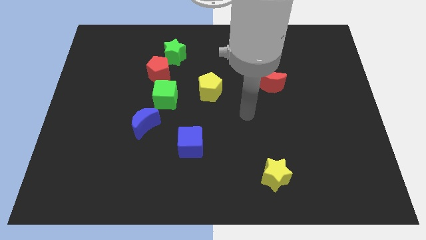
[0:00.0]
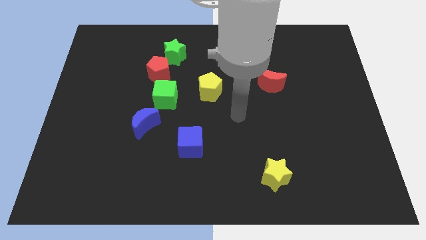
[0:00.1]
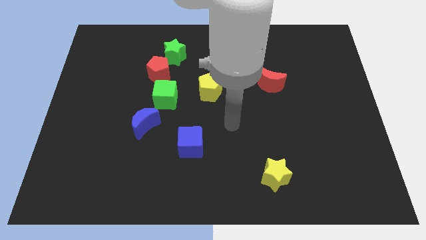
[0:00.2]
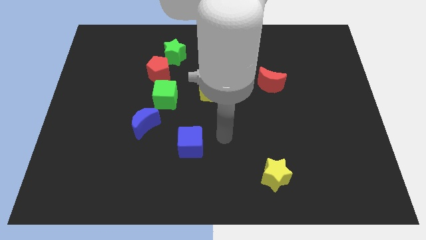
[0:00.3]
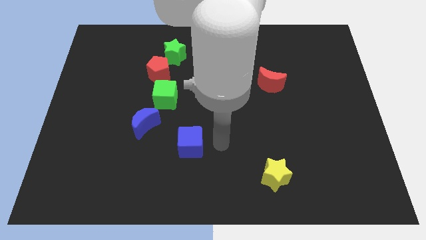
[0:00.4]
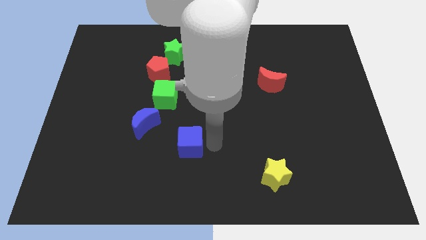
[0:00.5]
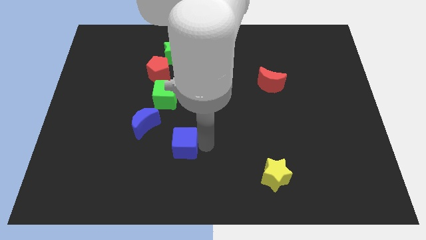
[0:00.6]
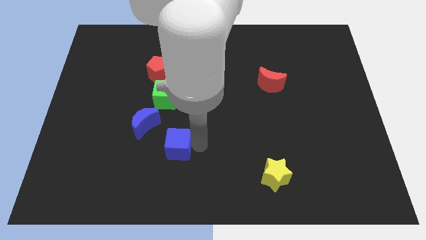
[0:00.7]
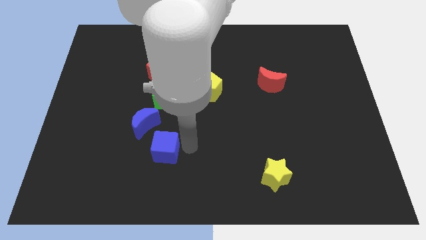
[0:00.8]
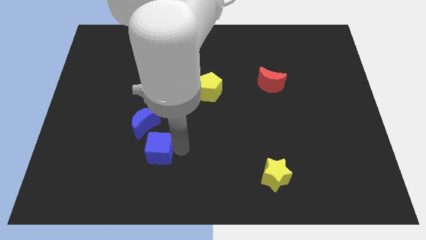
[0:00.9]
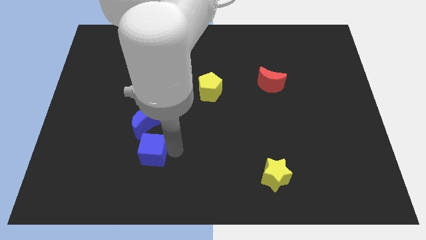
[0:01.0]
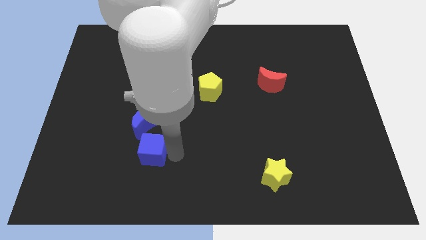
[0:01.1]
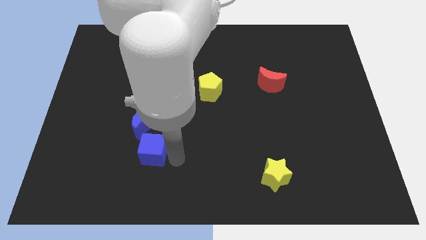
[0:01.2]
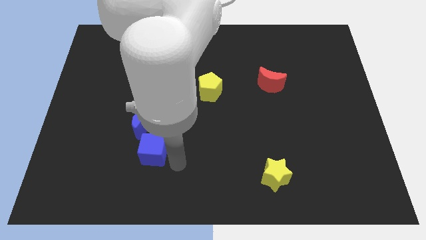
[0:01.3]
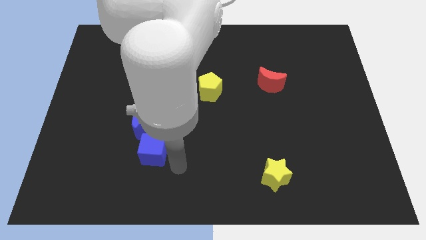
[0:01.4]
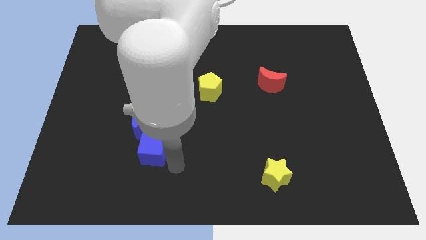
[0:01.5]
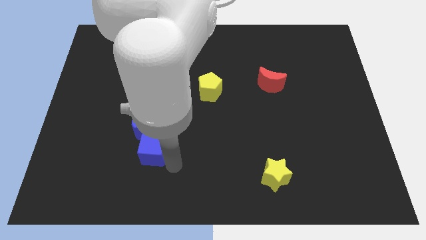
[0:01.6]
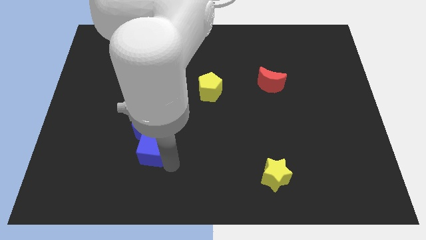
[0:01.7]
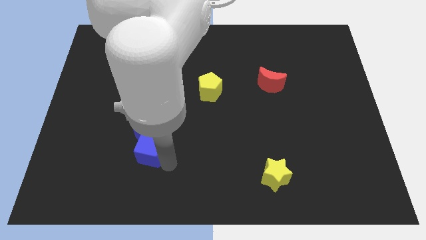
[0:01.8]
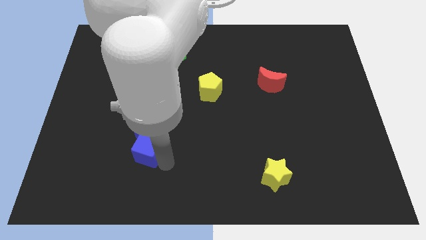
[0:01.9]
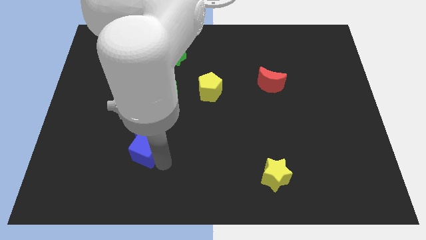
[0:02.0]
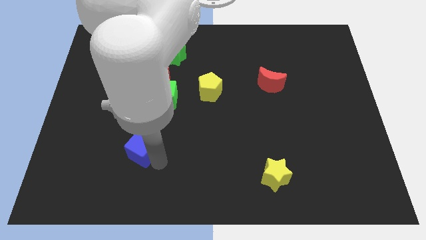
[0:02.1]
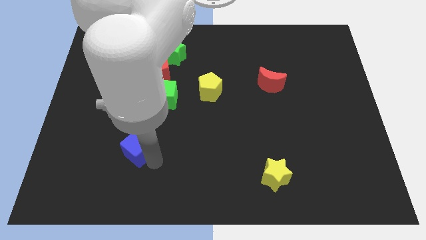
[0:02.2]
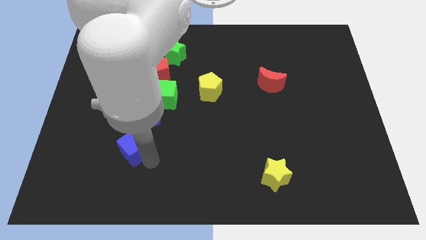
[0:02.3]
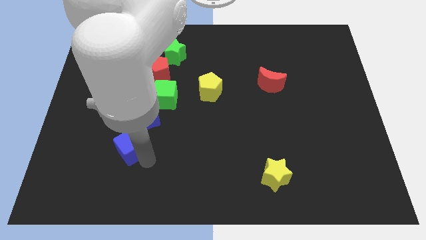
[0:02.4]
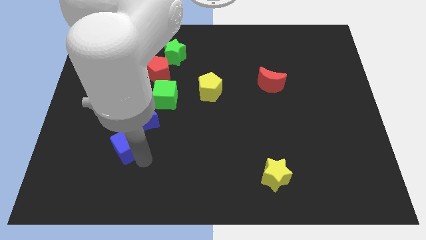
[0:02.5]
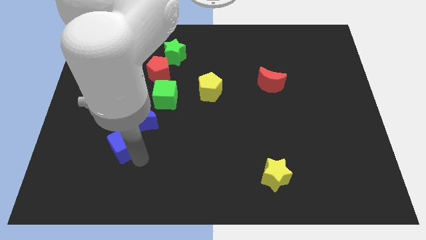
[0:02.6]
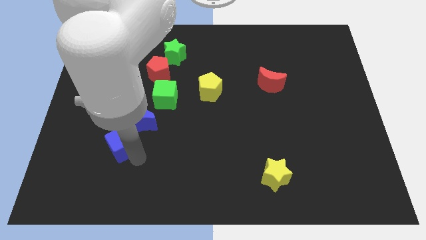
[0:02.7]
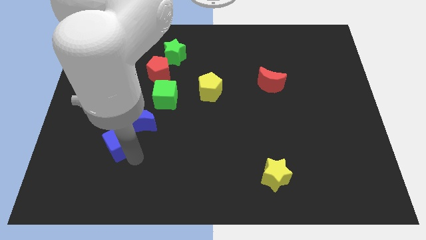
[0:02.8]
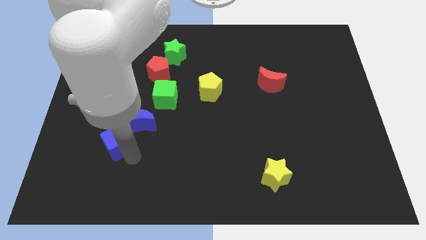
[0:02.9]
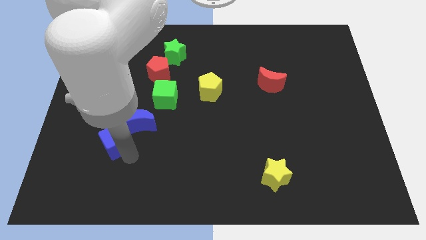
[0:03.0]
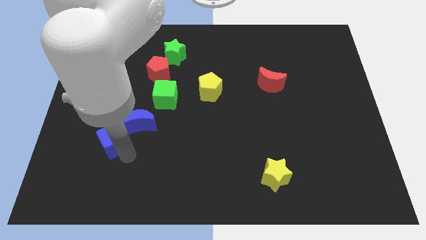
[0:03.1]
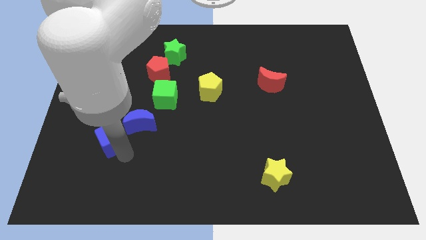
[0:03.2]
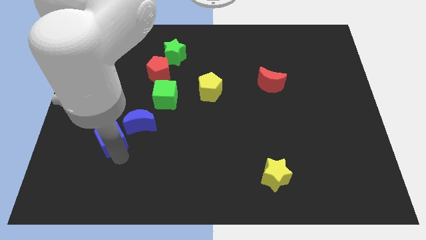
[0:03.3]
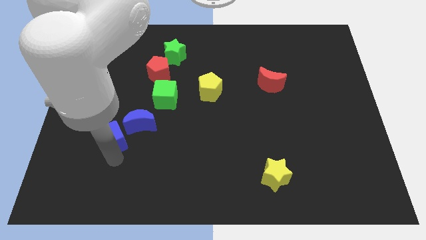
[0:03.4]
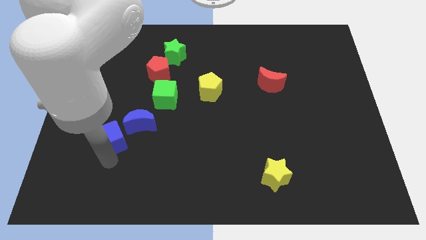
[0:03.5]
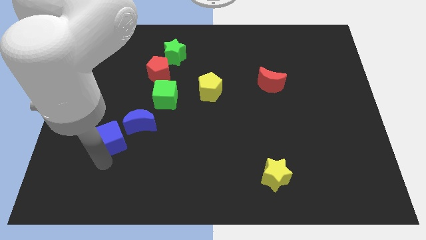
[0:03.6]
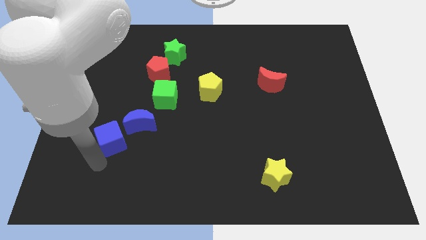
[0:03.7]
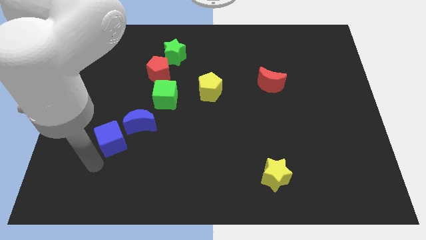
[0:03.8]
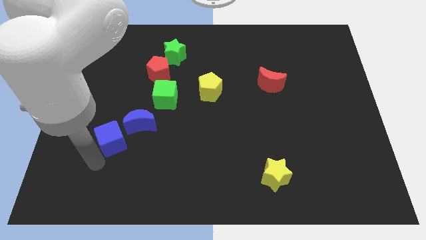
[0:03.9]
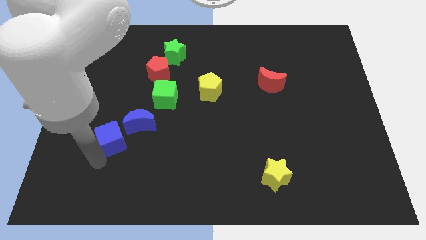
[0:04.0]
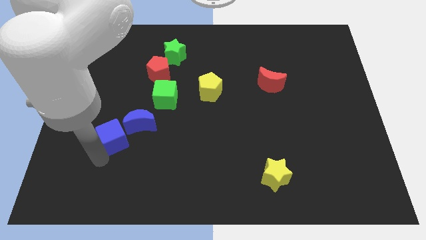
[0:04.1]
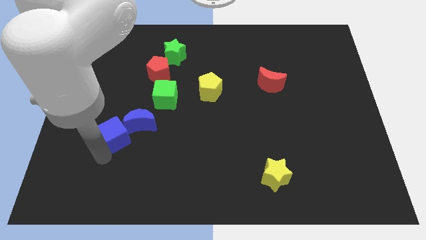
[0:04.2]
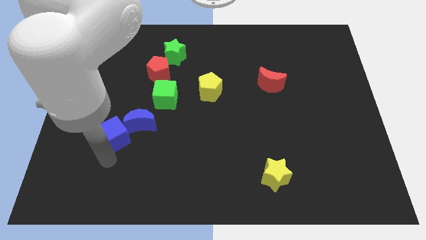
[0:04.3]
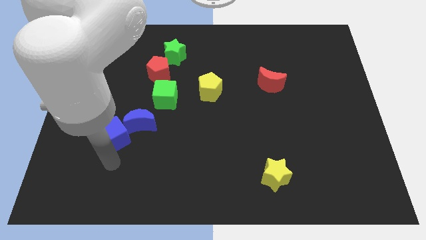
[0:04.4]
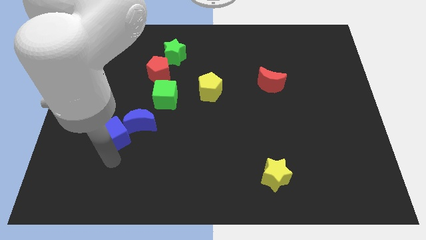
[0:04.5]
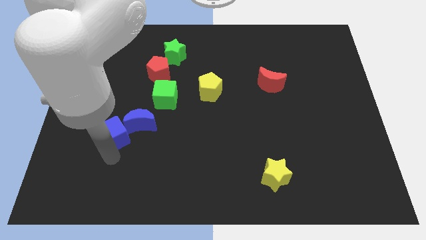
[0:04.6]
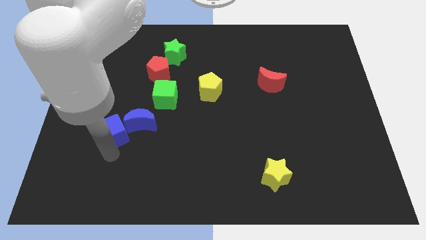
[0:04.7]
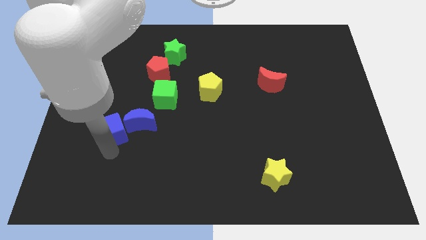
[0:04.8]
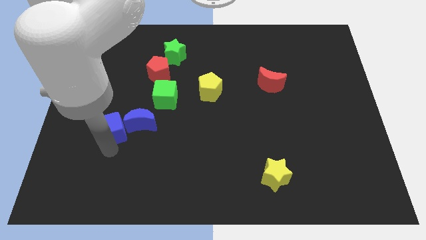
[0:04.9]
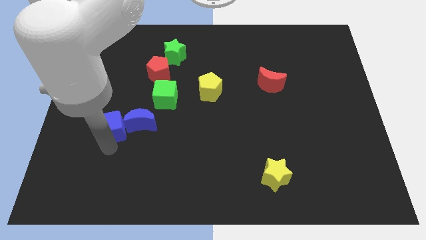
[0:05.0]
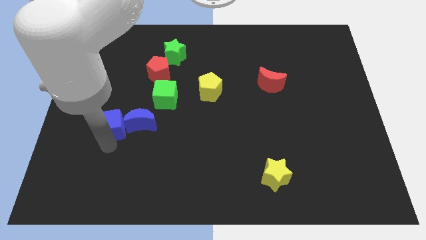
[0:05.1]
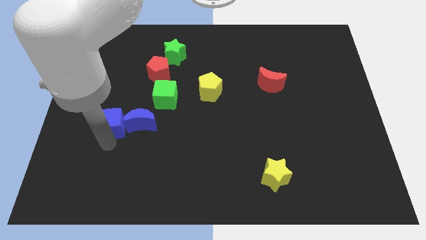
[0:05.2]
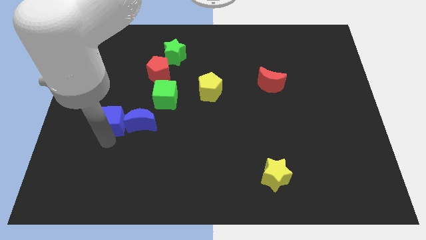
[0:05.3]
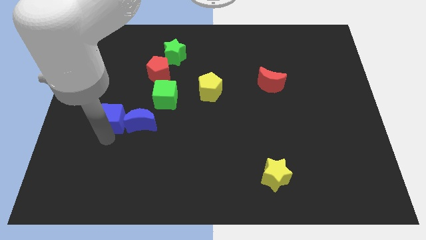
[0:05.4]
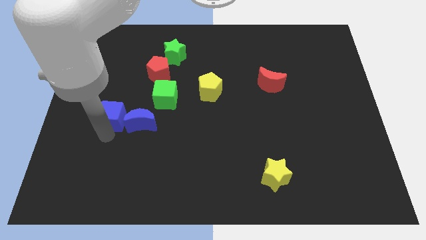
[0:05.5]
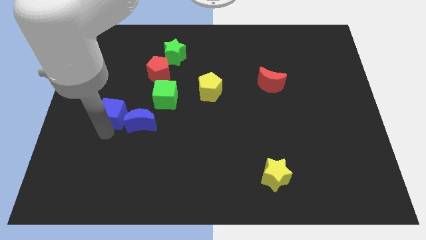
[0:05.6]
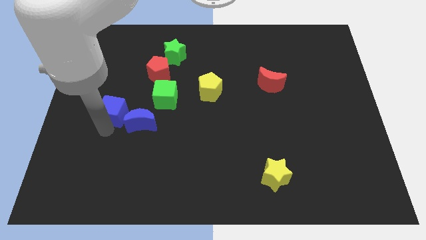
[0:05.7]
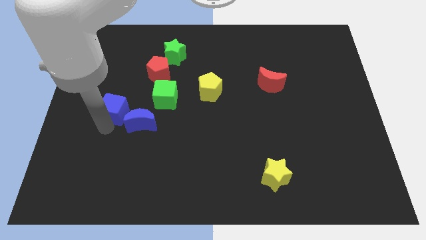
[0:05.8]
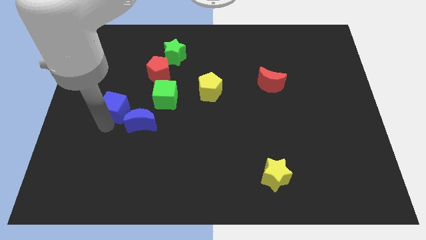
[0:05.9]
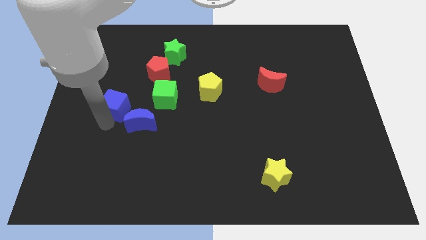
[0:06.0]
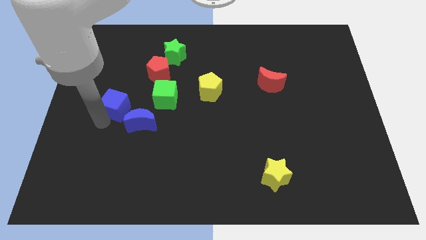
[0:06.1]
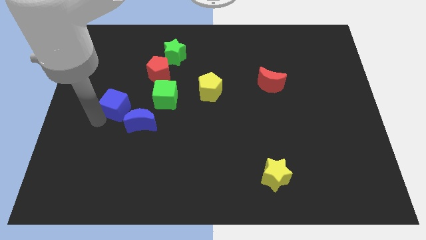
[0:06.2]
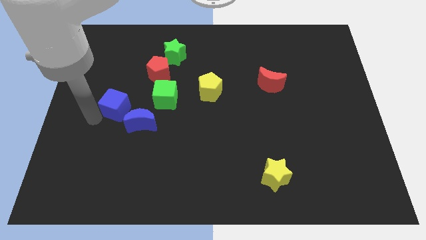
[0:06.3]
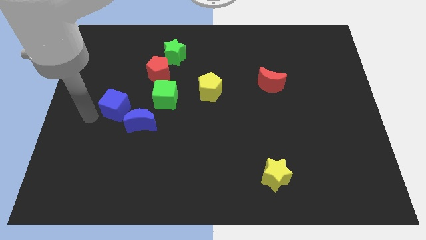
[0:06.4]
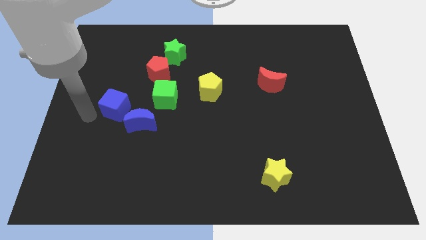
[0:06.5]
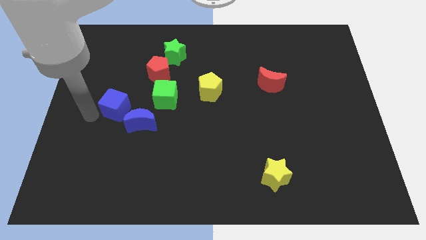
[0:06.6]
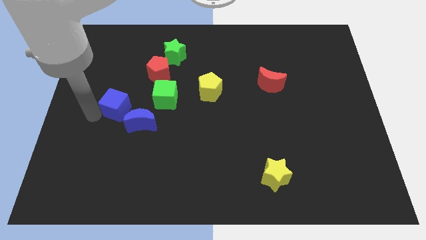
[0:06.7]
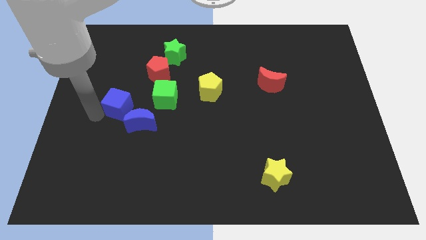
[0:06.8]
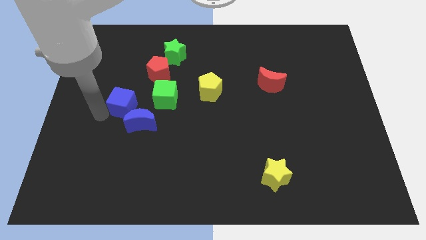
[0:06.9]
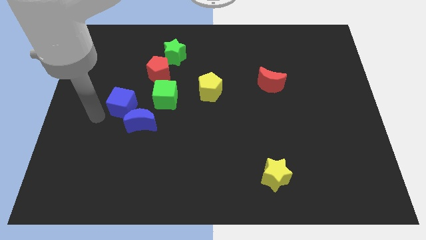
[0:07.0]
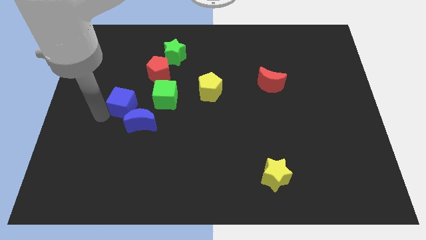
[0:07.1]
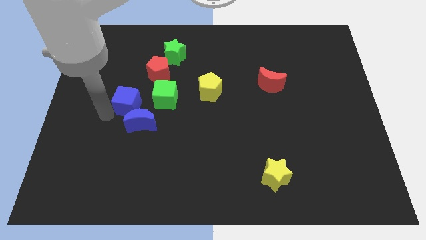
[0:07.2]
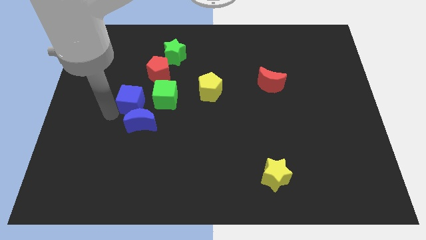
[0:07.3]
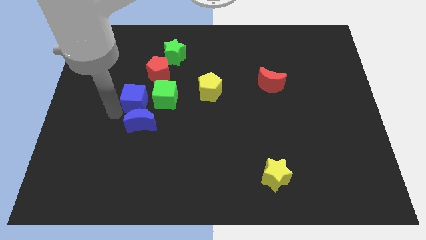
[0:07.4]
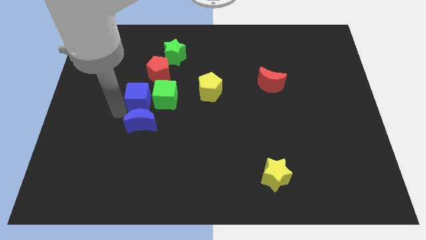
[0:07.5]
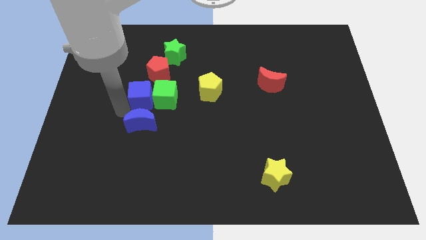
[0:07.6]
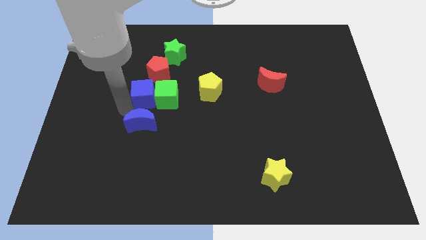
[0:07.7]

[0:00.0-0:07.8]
move the blue cube just left of the yellow pentagon
